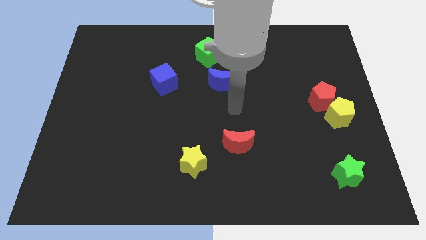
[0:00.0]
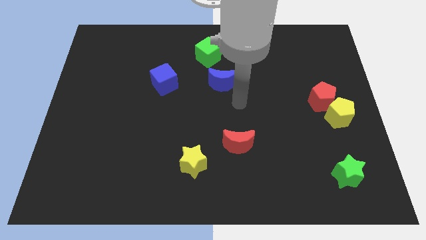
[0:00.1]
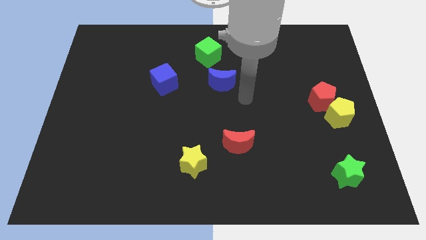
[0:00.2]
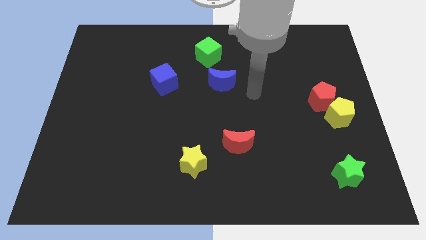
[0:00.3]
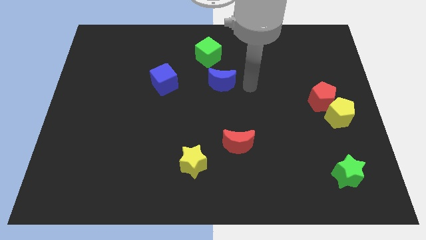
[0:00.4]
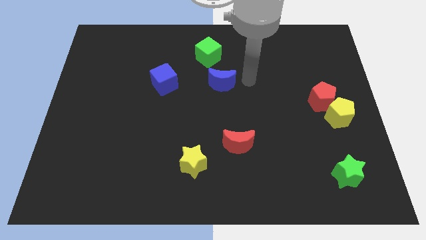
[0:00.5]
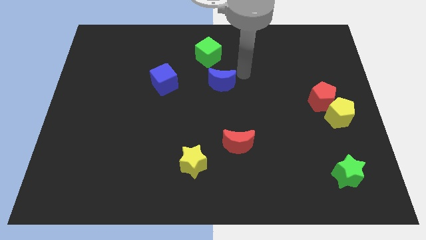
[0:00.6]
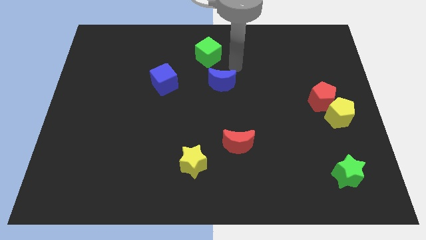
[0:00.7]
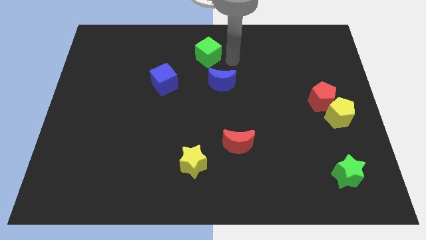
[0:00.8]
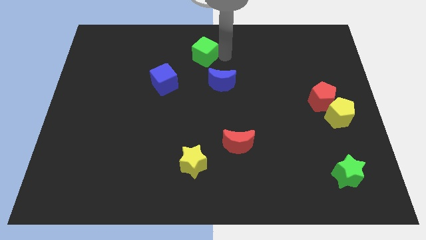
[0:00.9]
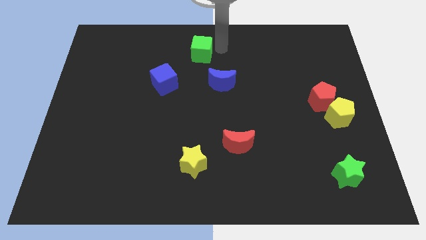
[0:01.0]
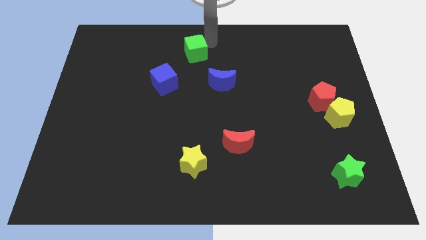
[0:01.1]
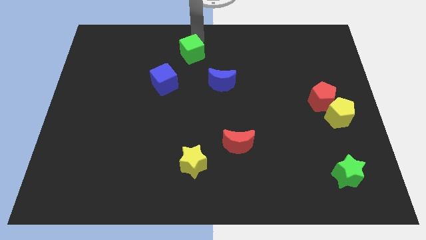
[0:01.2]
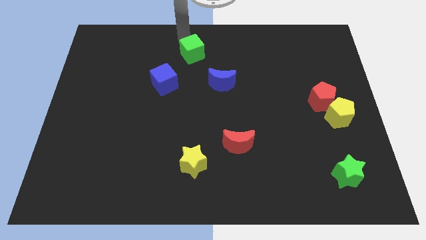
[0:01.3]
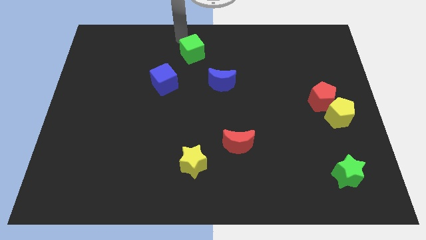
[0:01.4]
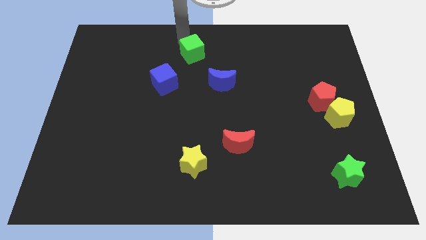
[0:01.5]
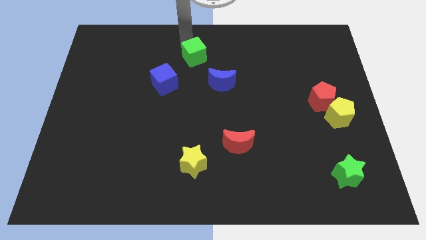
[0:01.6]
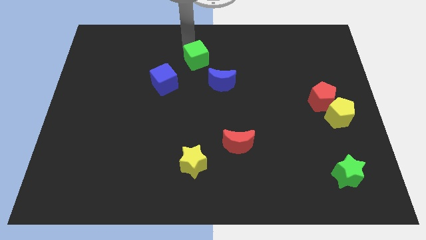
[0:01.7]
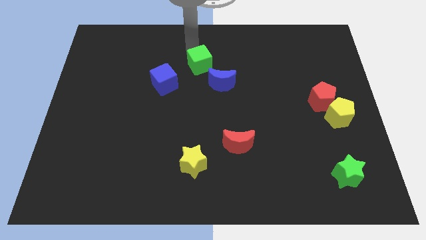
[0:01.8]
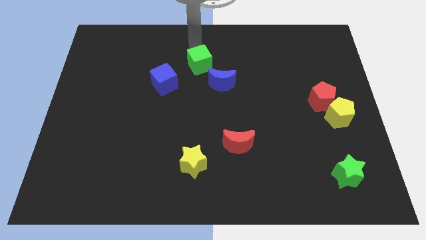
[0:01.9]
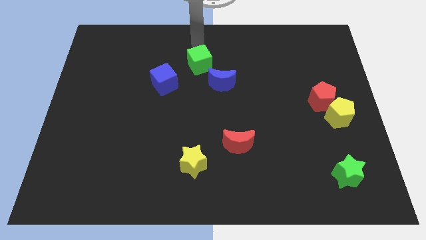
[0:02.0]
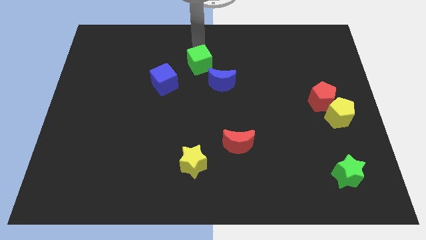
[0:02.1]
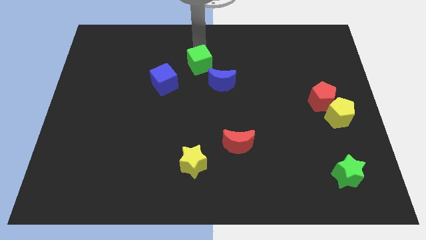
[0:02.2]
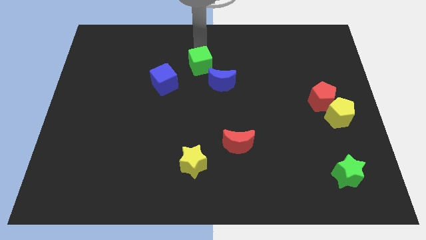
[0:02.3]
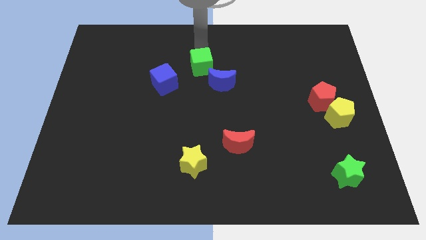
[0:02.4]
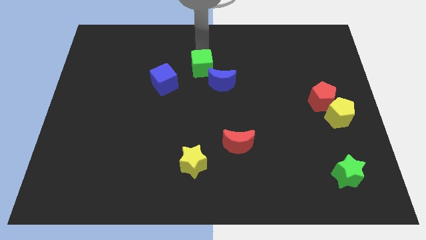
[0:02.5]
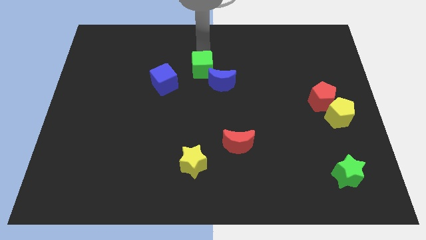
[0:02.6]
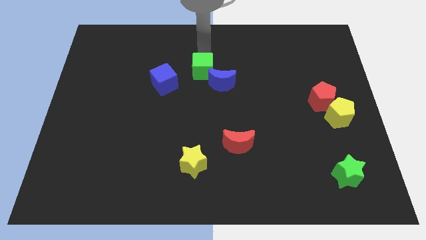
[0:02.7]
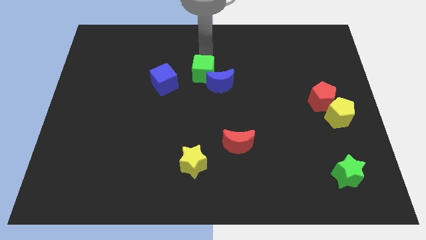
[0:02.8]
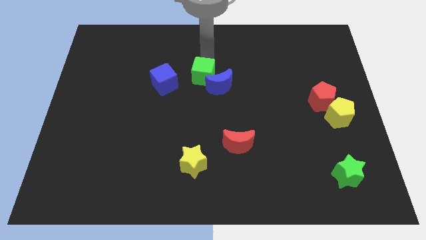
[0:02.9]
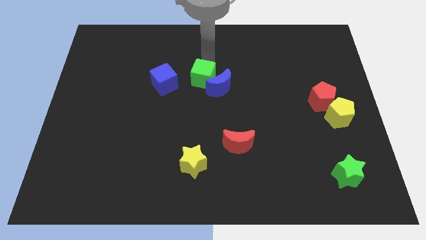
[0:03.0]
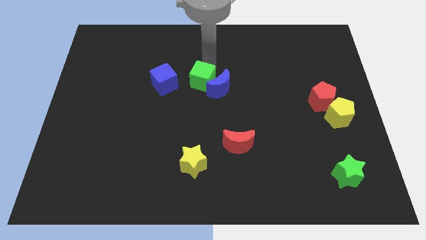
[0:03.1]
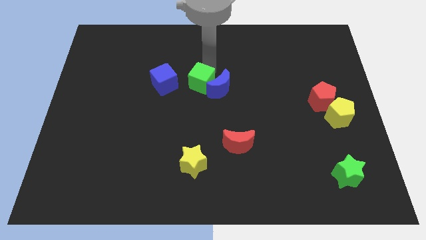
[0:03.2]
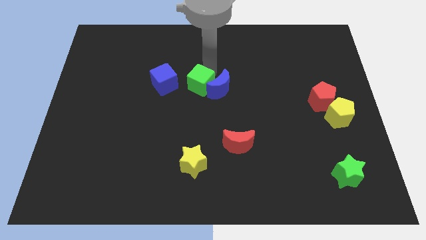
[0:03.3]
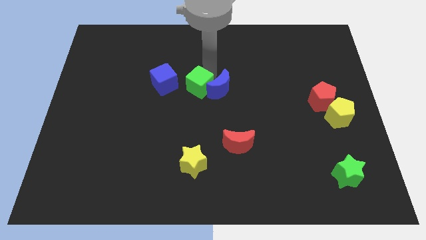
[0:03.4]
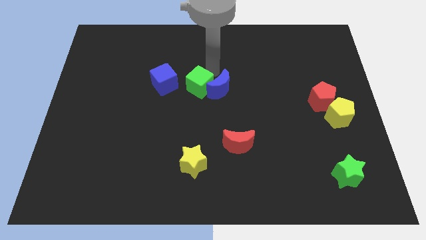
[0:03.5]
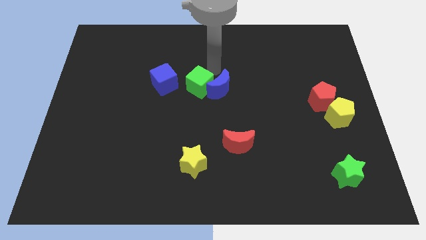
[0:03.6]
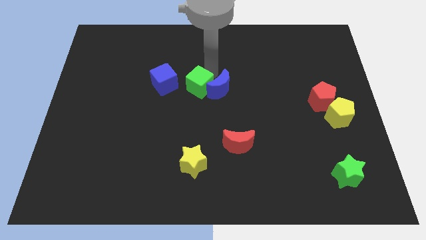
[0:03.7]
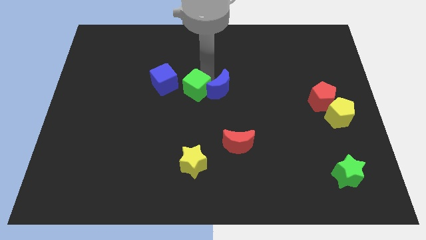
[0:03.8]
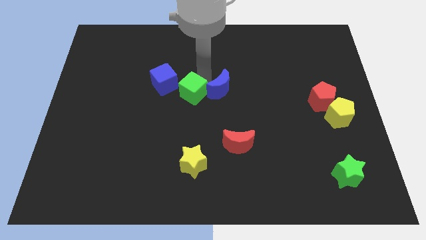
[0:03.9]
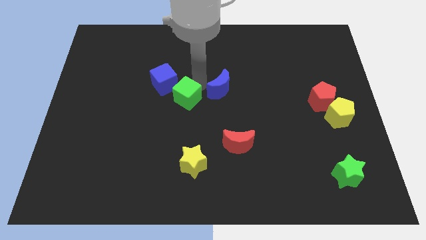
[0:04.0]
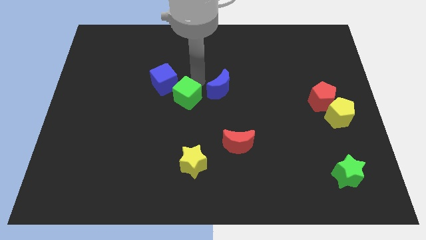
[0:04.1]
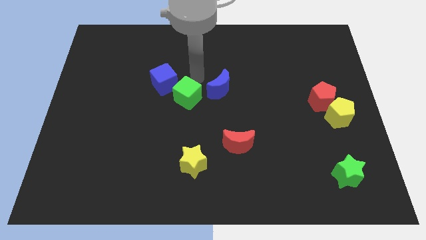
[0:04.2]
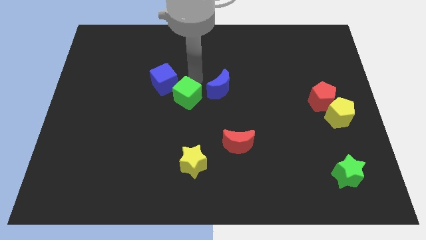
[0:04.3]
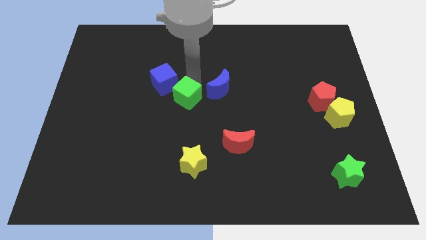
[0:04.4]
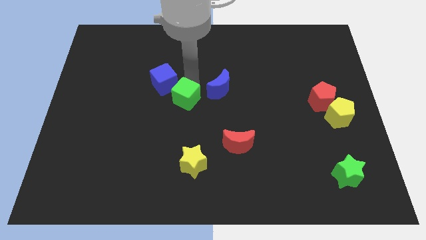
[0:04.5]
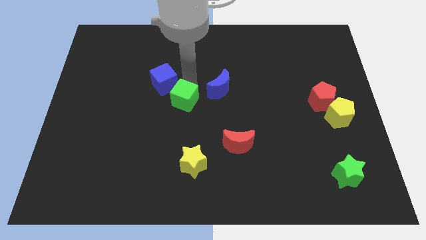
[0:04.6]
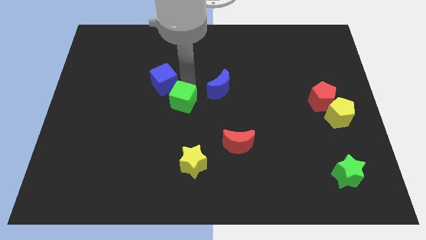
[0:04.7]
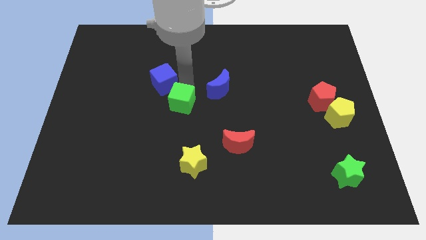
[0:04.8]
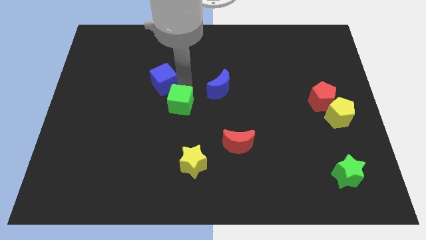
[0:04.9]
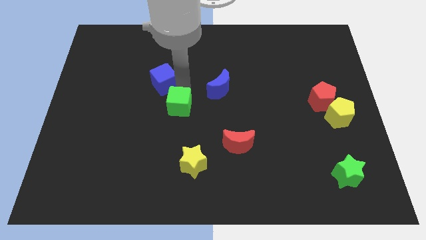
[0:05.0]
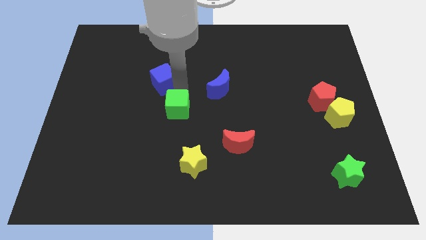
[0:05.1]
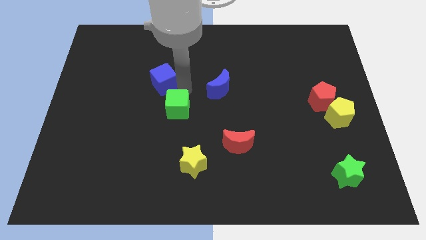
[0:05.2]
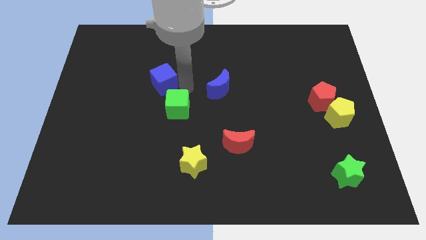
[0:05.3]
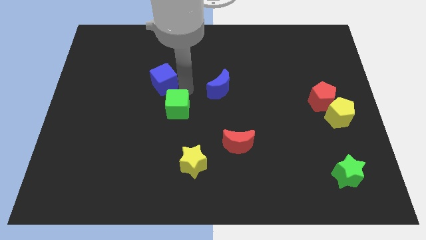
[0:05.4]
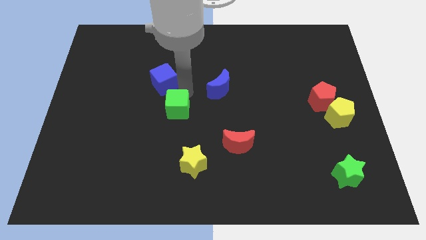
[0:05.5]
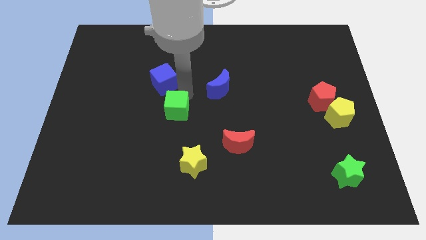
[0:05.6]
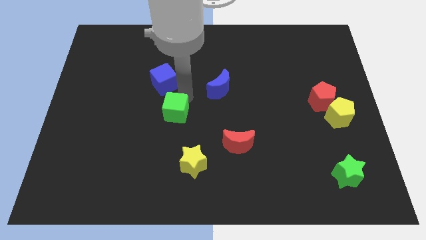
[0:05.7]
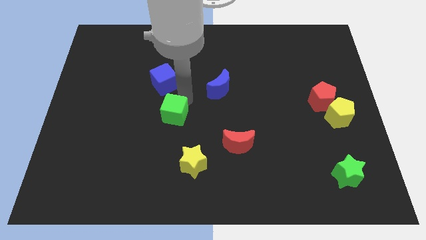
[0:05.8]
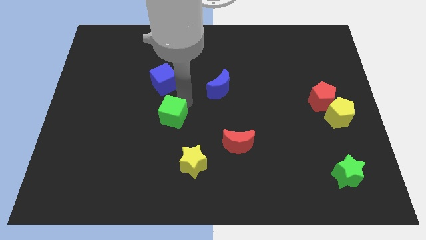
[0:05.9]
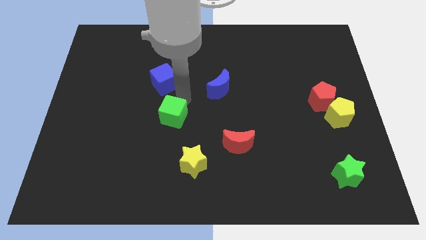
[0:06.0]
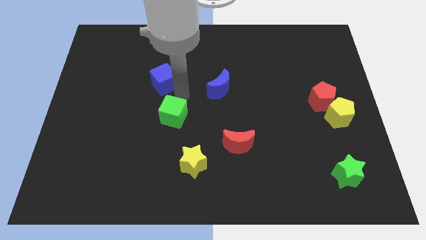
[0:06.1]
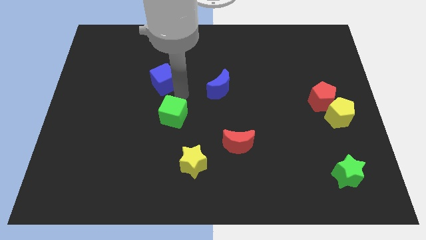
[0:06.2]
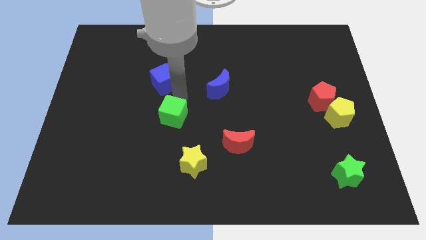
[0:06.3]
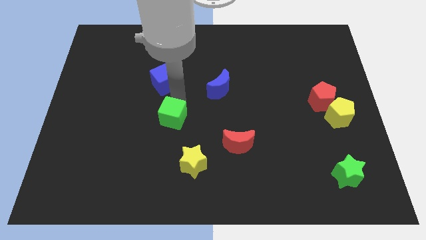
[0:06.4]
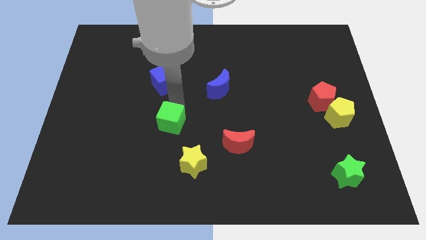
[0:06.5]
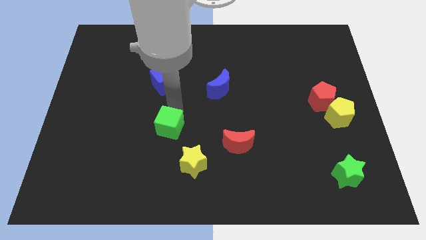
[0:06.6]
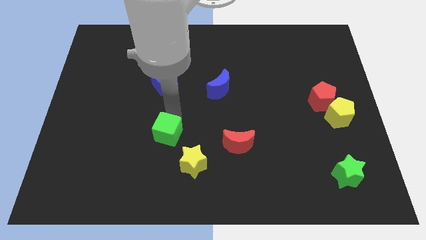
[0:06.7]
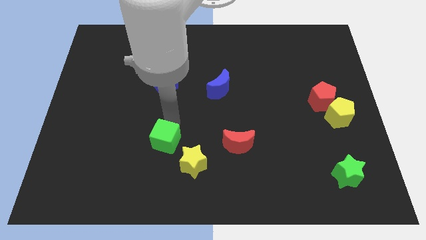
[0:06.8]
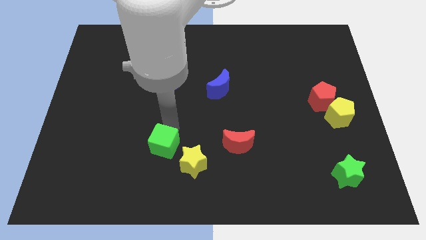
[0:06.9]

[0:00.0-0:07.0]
put the green cube to the left side of the yellow star
